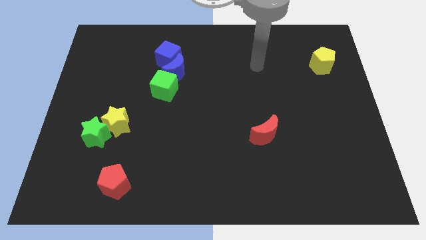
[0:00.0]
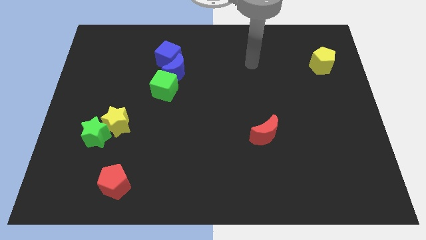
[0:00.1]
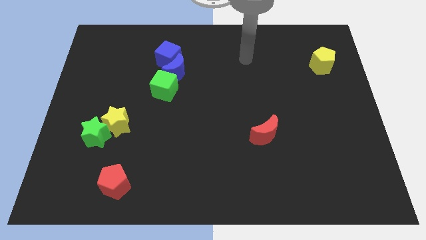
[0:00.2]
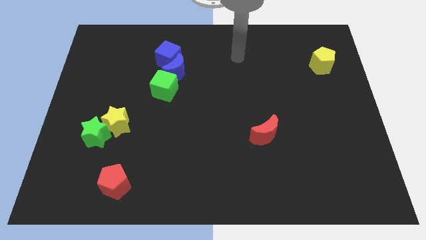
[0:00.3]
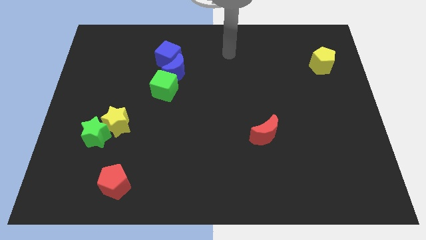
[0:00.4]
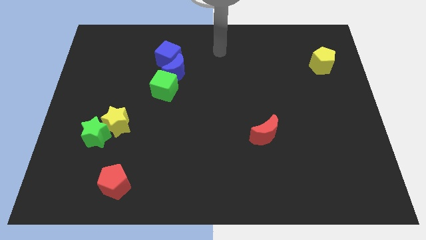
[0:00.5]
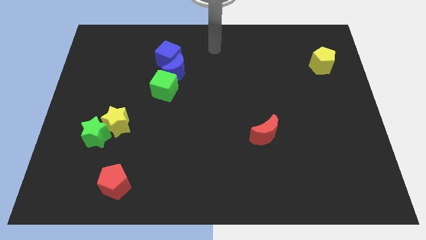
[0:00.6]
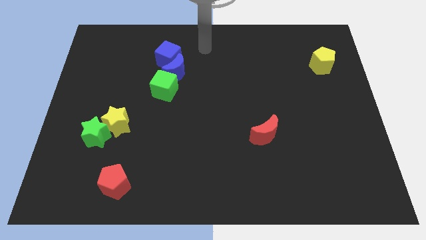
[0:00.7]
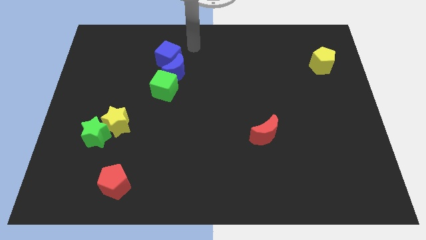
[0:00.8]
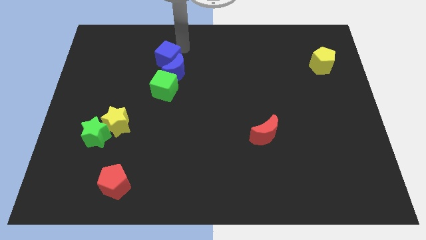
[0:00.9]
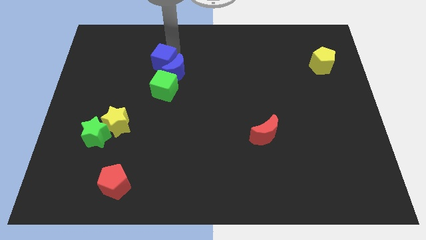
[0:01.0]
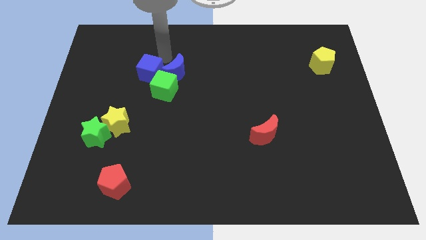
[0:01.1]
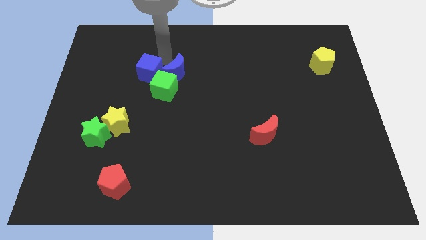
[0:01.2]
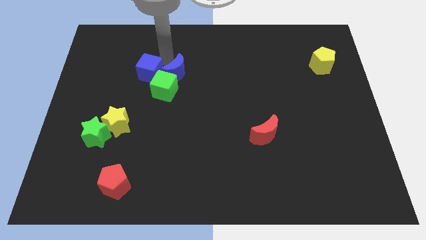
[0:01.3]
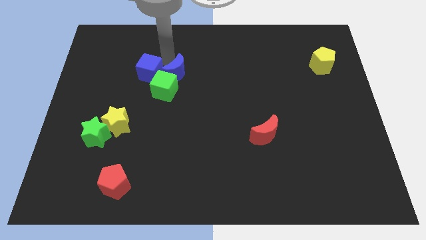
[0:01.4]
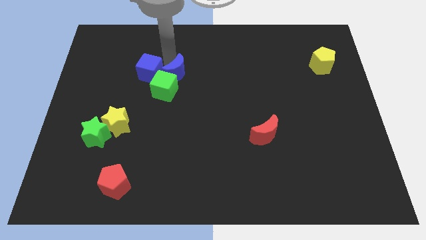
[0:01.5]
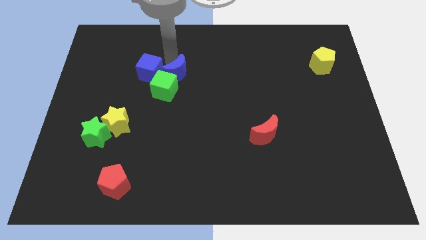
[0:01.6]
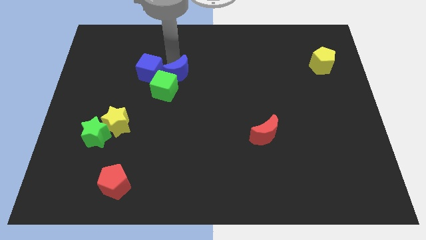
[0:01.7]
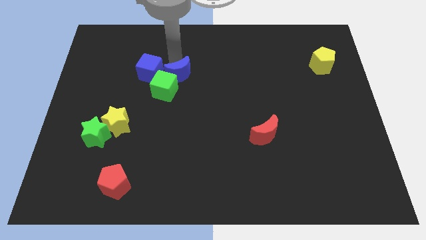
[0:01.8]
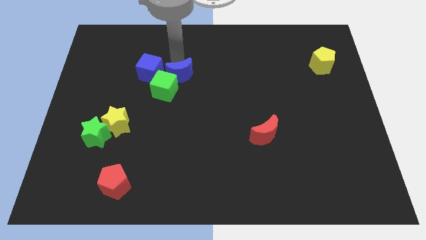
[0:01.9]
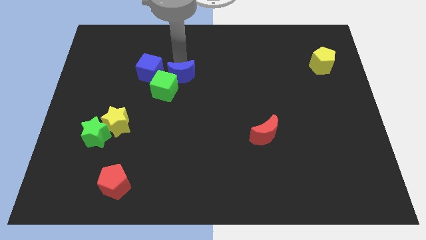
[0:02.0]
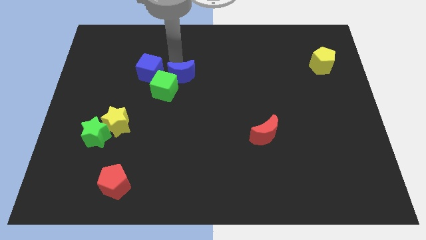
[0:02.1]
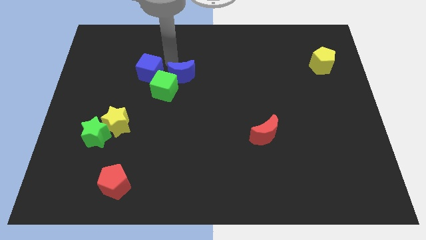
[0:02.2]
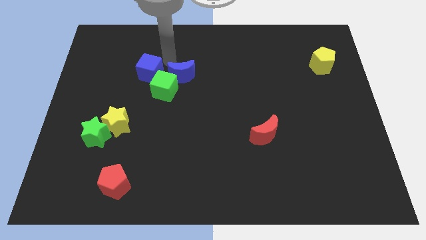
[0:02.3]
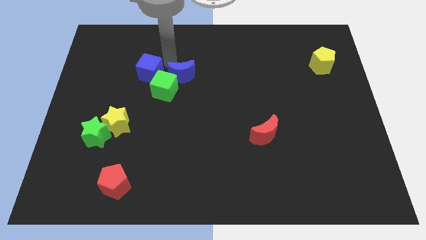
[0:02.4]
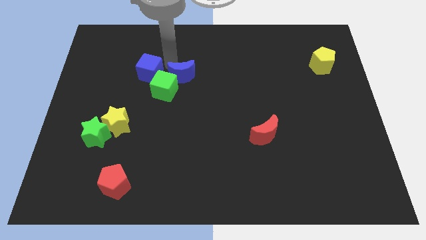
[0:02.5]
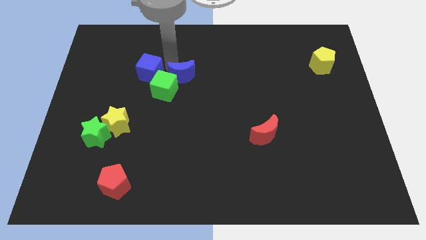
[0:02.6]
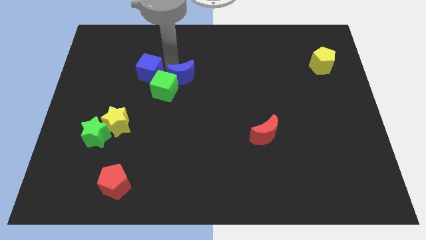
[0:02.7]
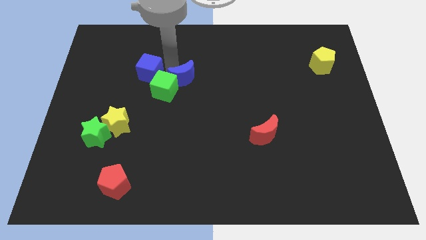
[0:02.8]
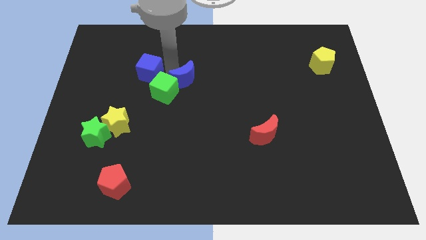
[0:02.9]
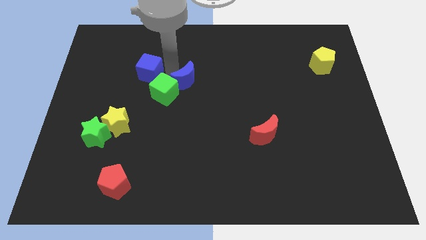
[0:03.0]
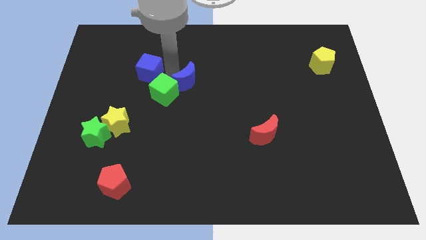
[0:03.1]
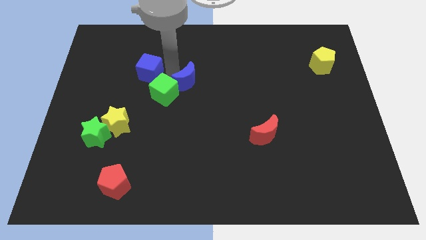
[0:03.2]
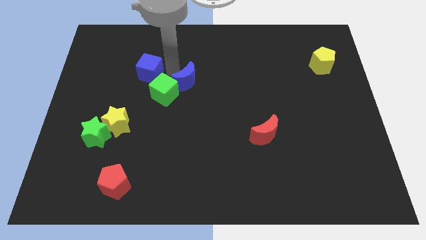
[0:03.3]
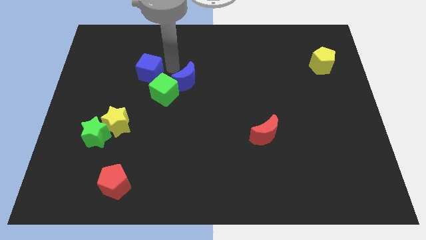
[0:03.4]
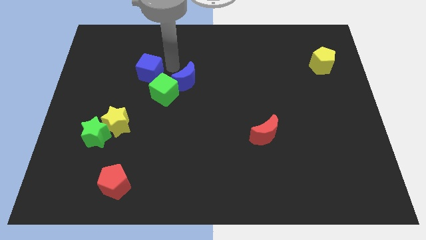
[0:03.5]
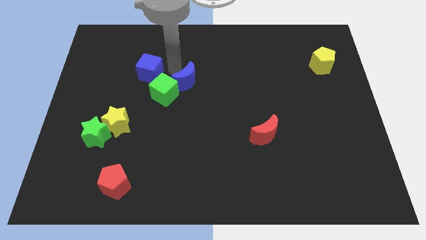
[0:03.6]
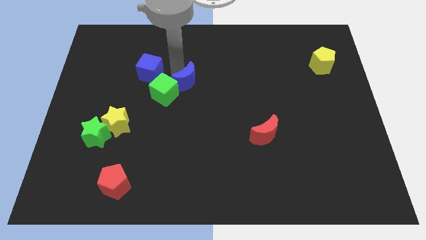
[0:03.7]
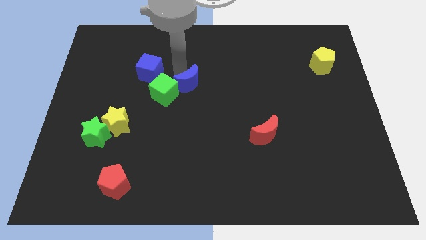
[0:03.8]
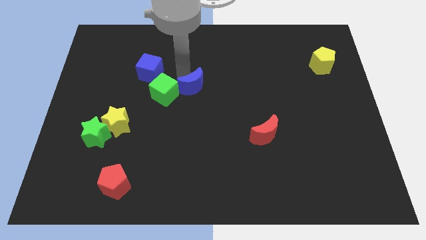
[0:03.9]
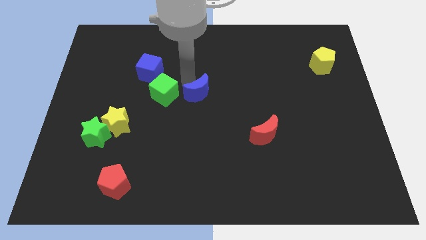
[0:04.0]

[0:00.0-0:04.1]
slightly slide the blue moon diagonally downwards and to the right

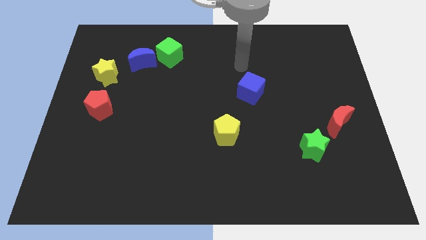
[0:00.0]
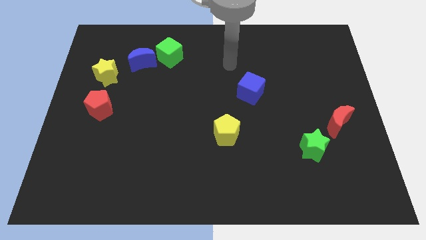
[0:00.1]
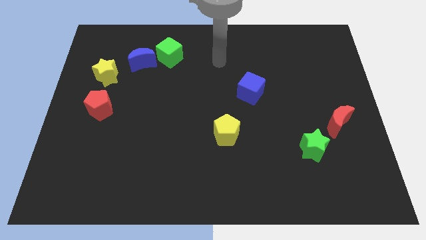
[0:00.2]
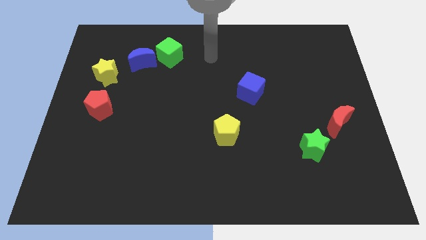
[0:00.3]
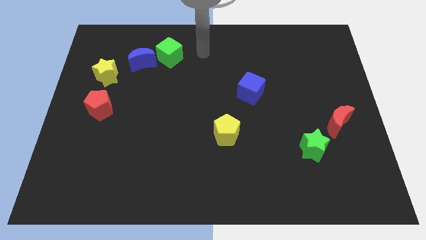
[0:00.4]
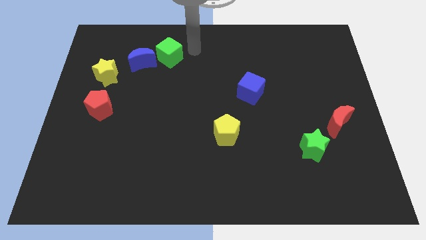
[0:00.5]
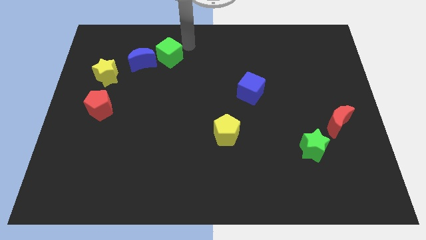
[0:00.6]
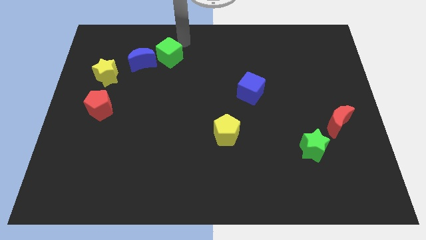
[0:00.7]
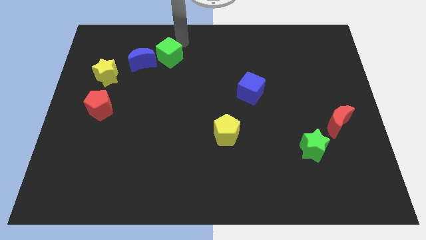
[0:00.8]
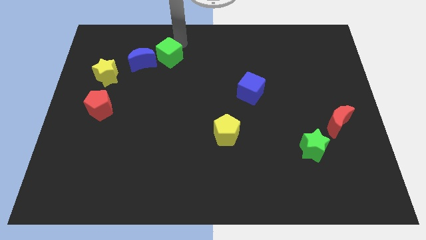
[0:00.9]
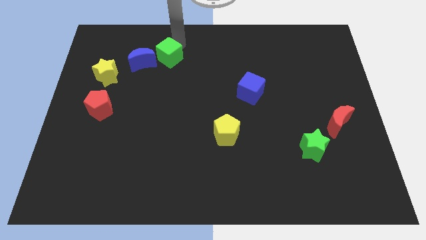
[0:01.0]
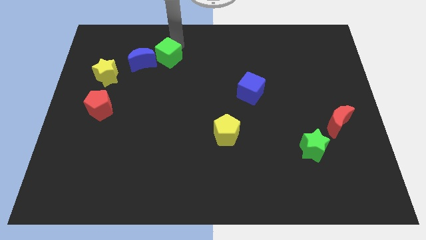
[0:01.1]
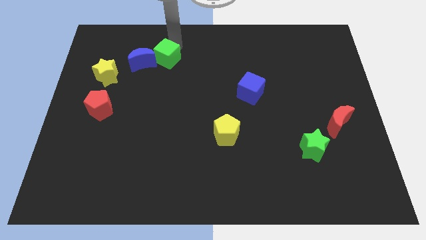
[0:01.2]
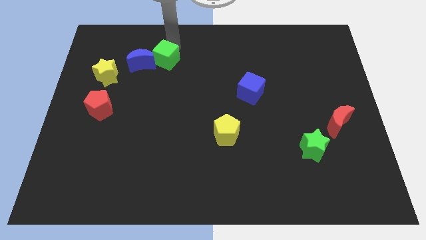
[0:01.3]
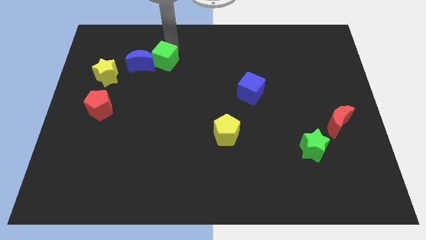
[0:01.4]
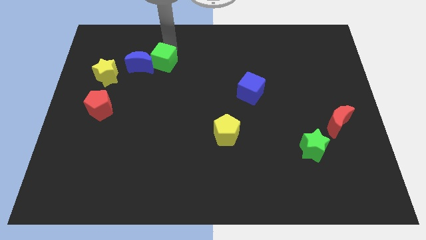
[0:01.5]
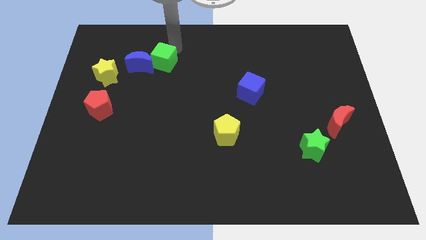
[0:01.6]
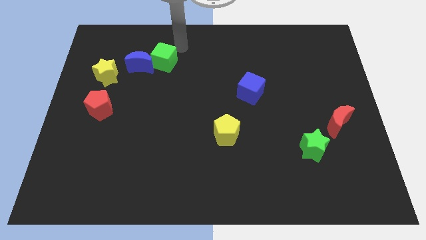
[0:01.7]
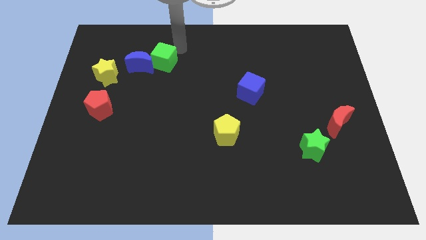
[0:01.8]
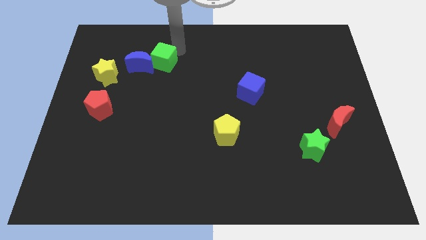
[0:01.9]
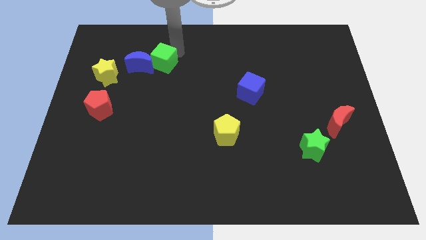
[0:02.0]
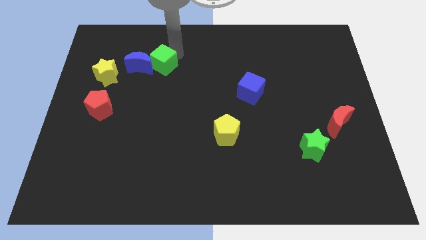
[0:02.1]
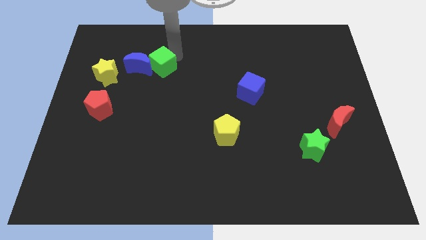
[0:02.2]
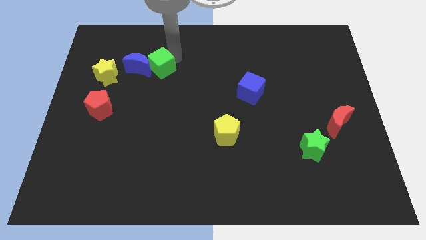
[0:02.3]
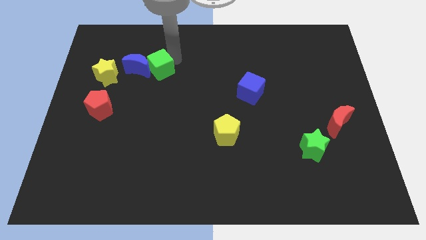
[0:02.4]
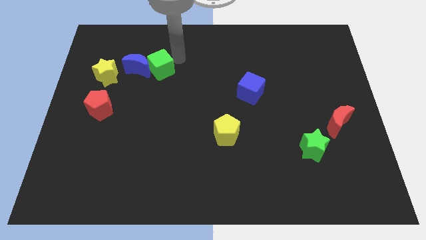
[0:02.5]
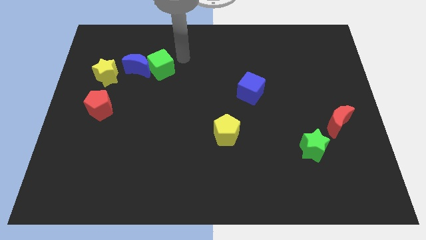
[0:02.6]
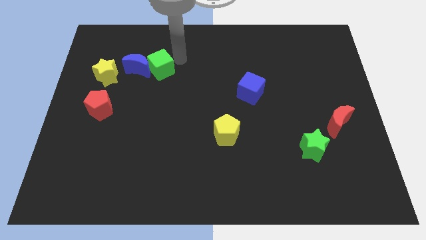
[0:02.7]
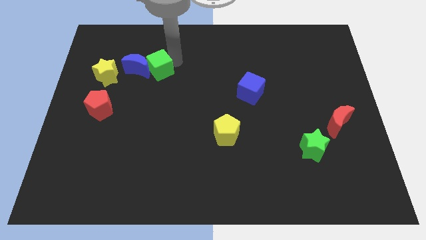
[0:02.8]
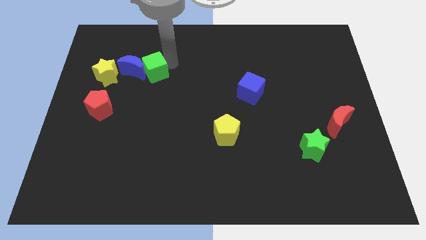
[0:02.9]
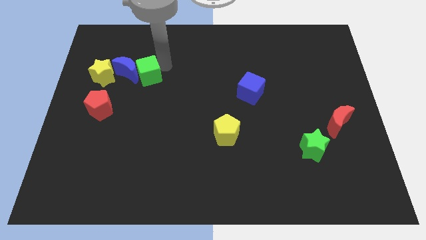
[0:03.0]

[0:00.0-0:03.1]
push the green cube a little bit downwards and to the left diagonally

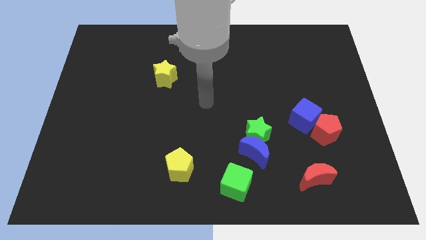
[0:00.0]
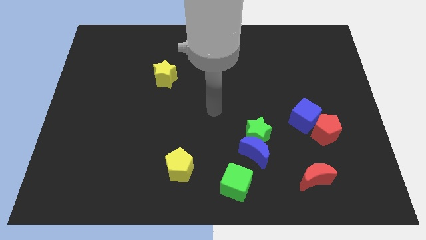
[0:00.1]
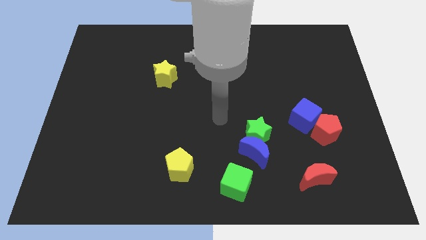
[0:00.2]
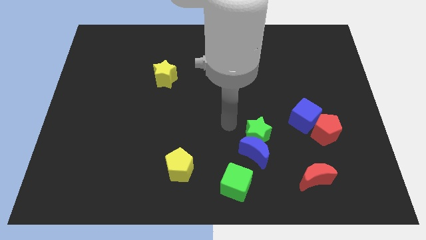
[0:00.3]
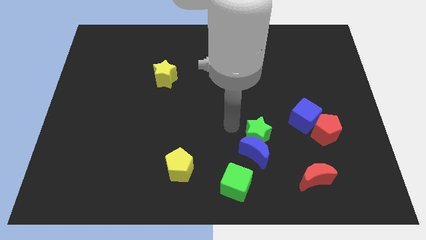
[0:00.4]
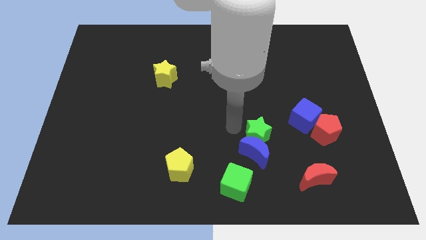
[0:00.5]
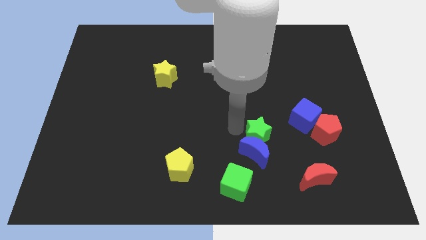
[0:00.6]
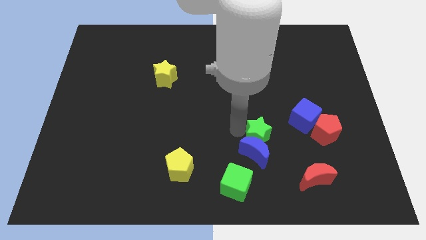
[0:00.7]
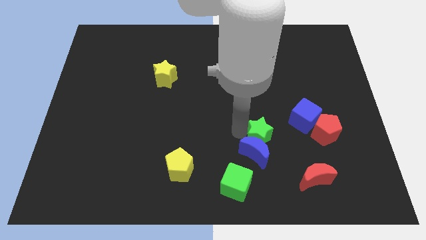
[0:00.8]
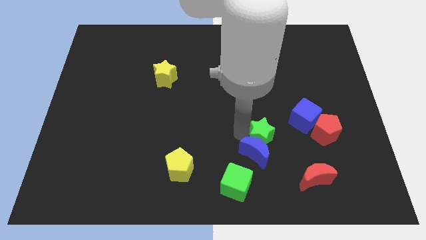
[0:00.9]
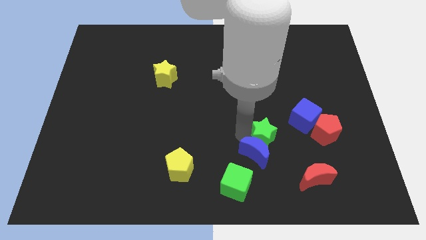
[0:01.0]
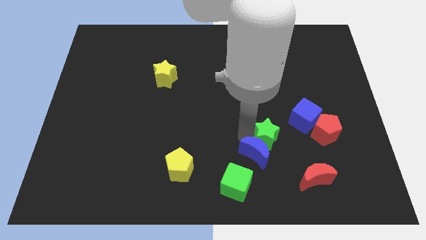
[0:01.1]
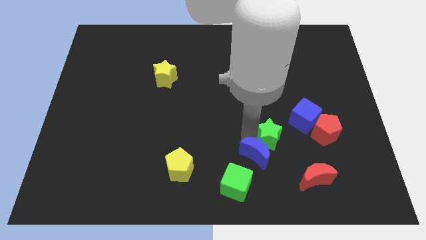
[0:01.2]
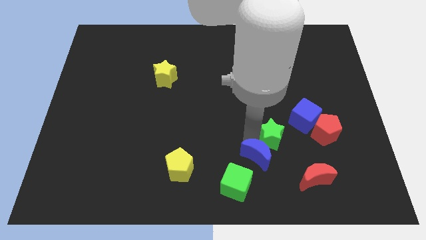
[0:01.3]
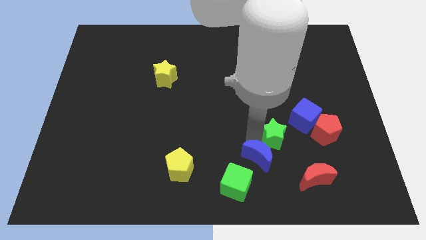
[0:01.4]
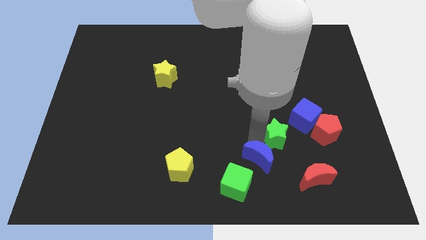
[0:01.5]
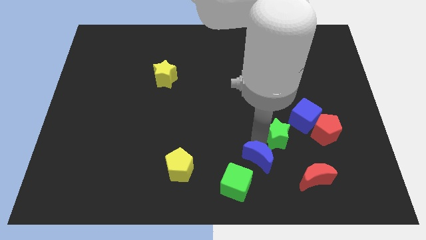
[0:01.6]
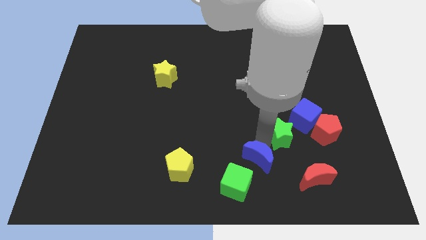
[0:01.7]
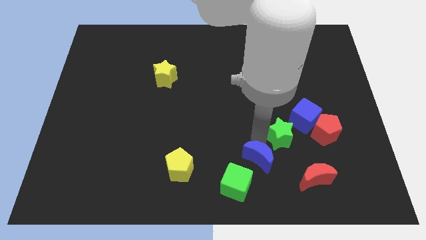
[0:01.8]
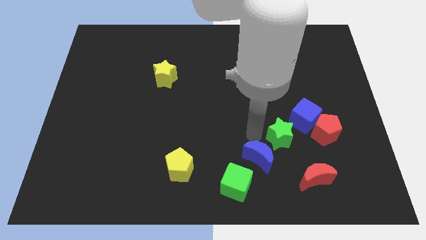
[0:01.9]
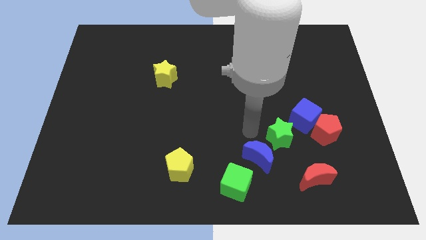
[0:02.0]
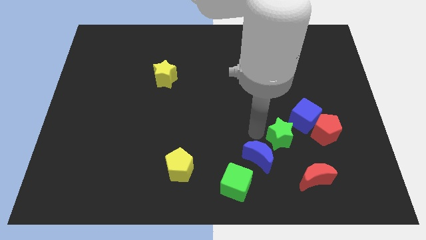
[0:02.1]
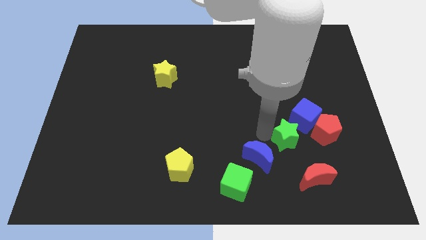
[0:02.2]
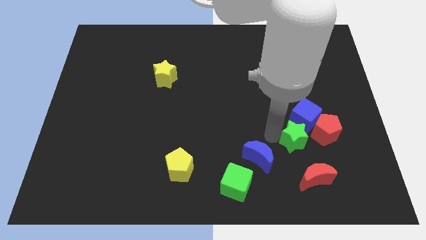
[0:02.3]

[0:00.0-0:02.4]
push the green star to the right a bit
